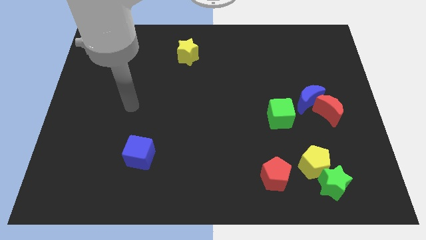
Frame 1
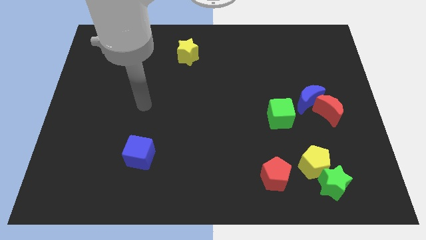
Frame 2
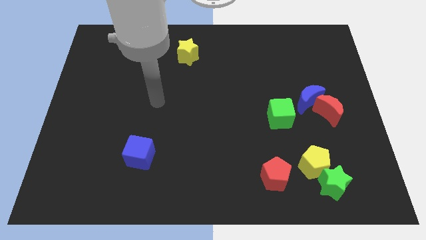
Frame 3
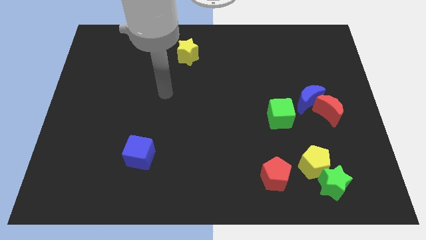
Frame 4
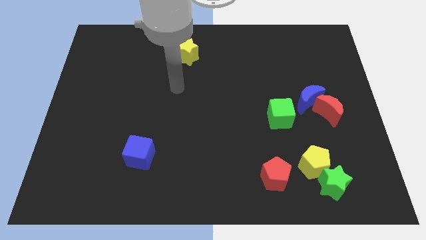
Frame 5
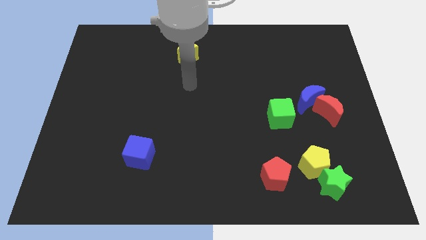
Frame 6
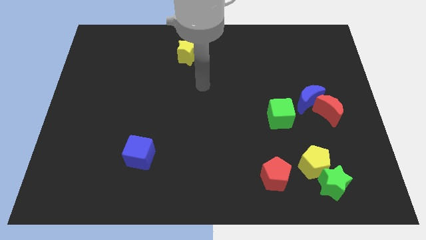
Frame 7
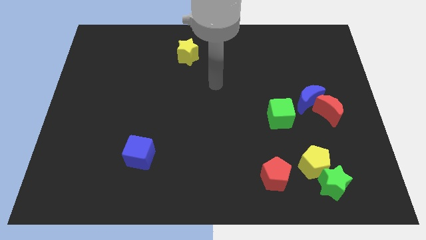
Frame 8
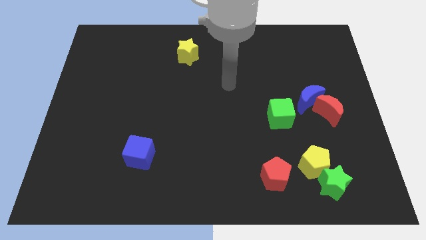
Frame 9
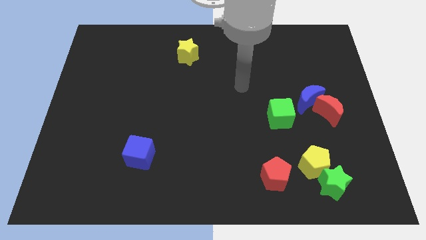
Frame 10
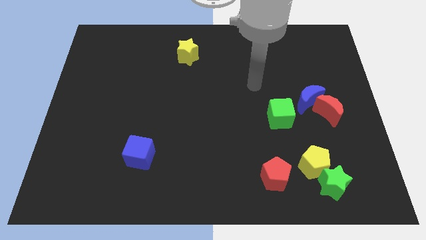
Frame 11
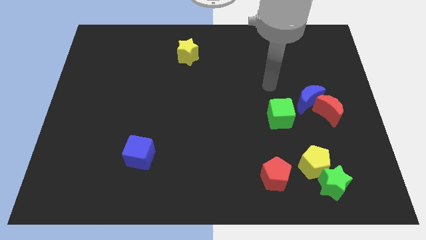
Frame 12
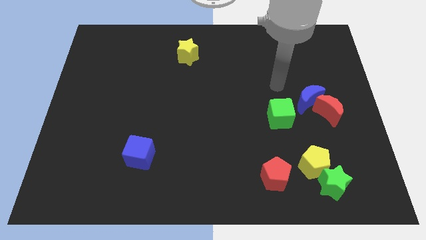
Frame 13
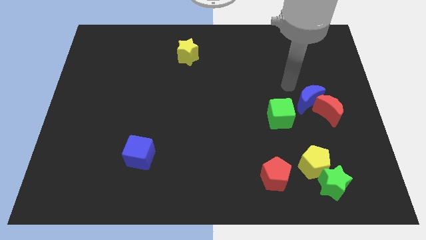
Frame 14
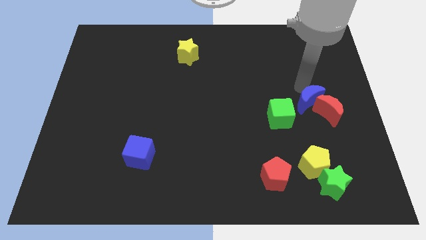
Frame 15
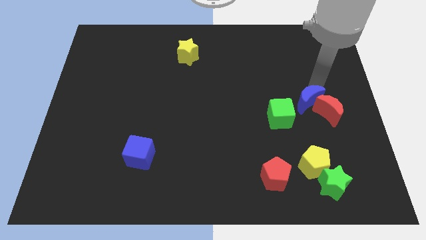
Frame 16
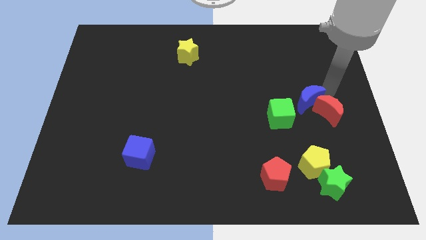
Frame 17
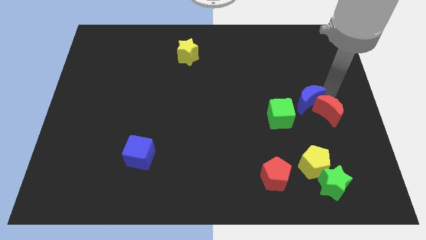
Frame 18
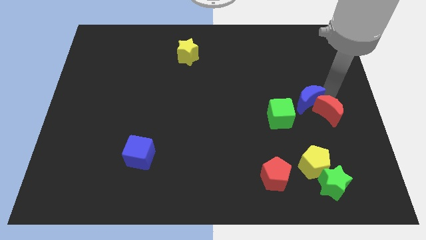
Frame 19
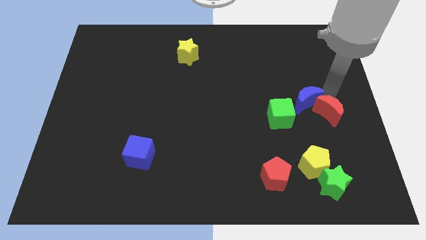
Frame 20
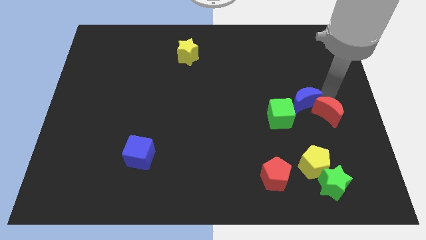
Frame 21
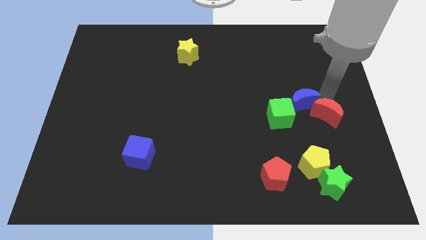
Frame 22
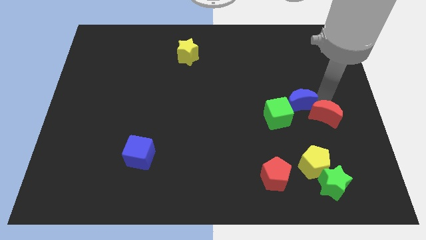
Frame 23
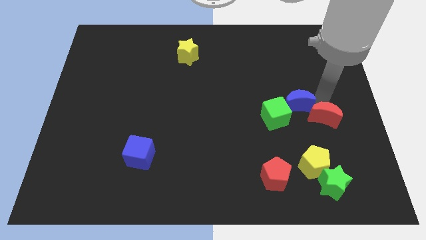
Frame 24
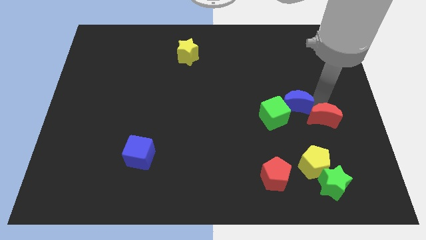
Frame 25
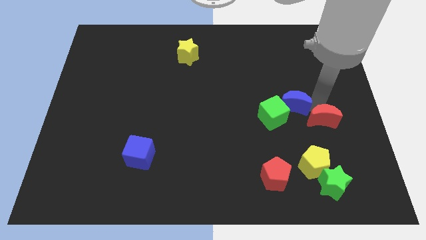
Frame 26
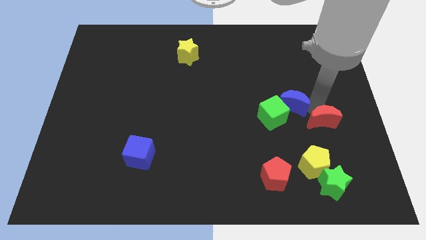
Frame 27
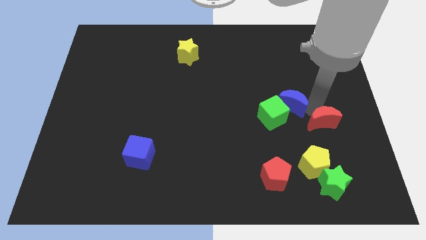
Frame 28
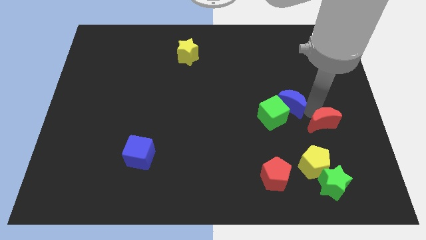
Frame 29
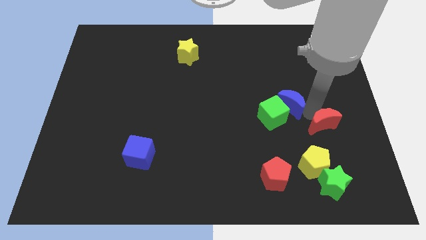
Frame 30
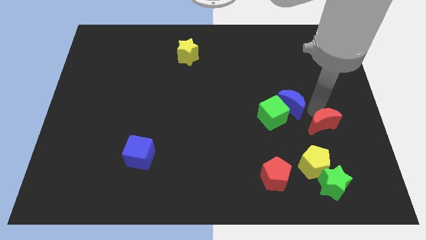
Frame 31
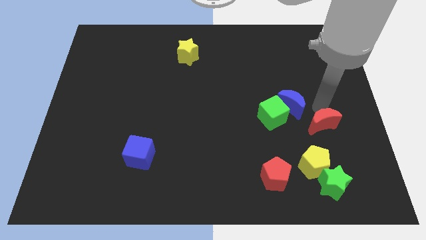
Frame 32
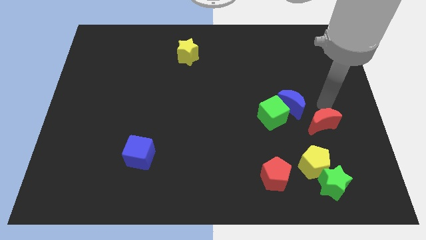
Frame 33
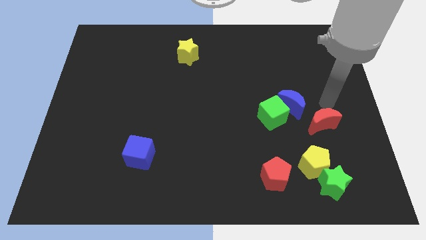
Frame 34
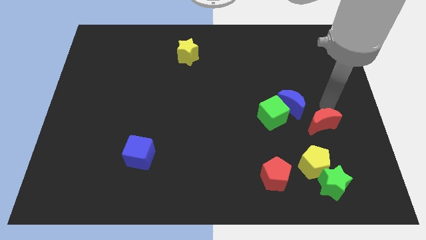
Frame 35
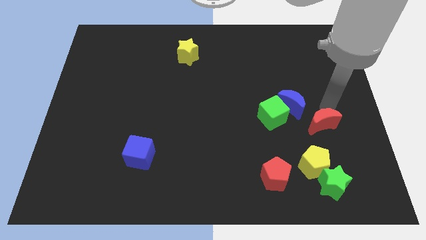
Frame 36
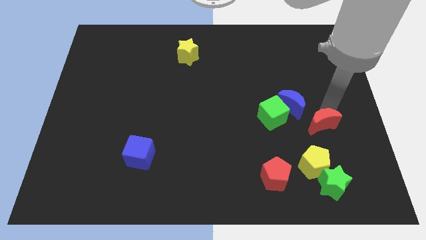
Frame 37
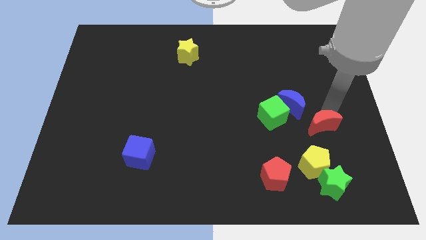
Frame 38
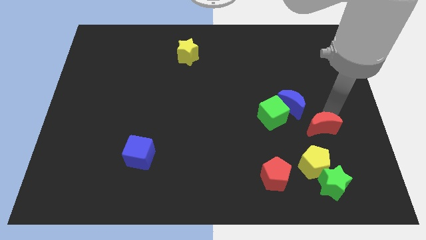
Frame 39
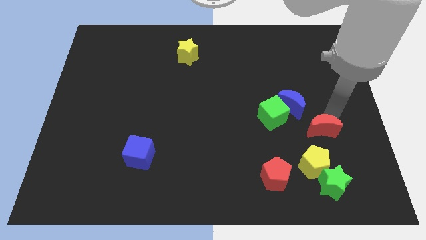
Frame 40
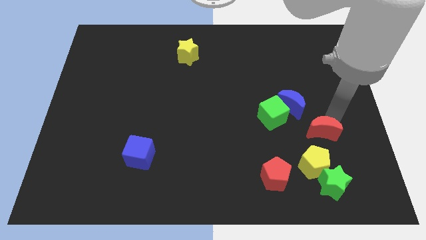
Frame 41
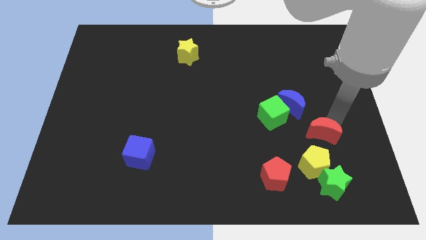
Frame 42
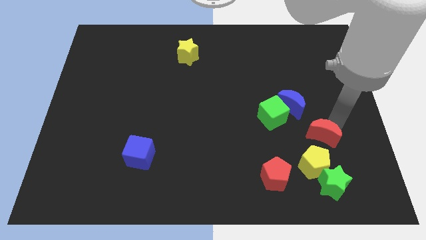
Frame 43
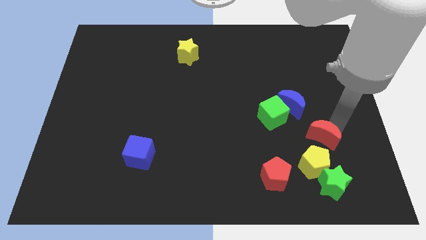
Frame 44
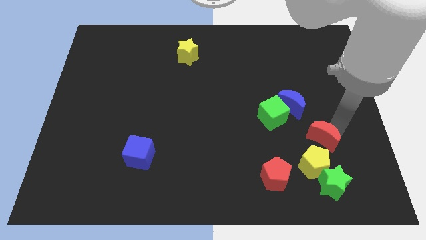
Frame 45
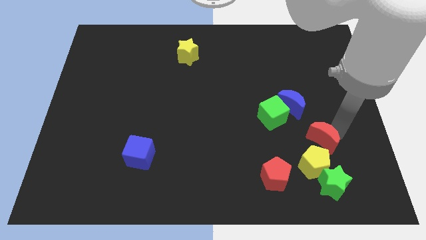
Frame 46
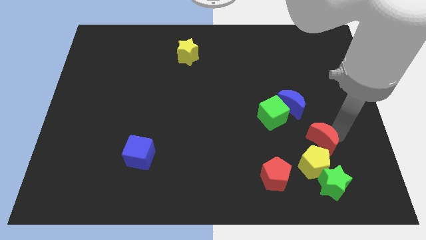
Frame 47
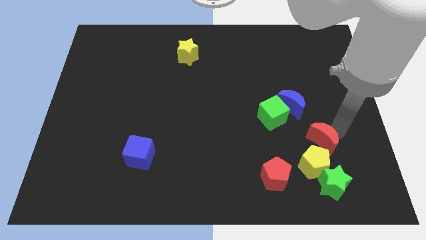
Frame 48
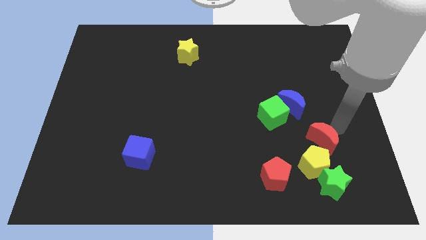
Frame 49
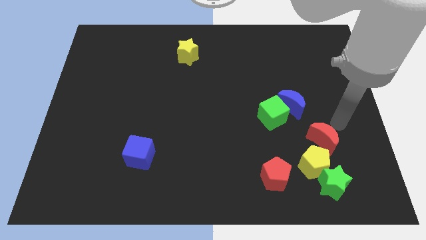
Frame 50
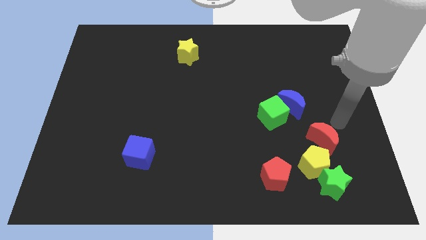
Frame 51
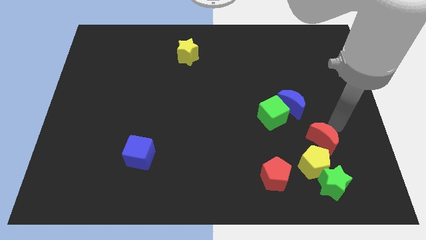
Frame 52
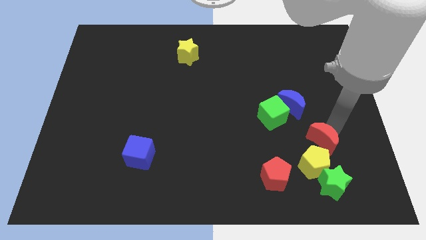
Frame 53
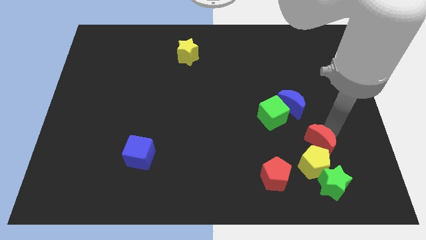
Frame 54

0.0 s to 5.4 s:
move the red moon next to the yellow pentagon

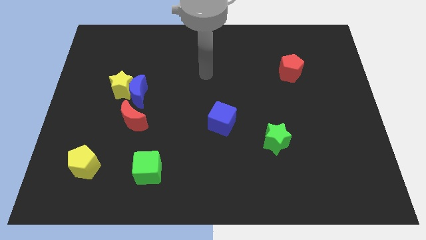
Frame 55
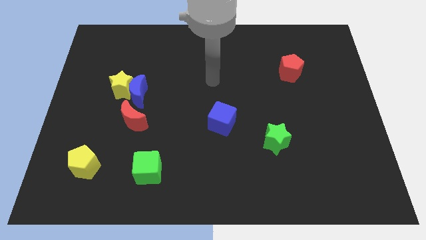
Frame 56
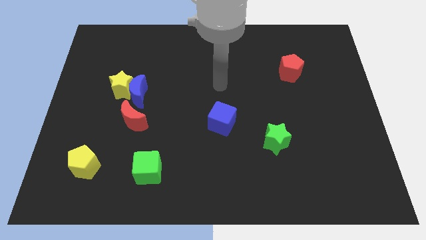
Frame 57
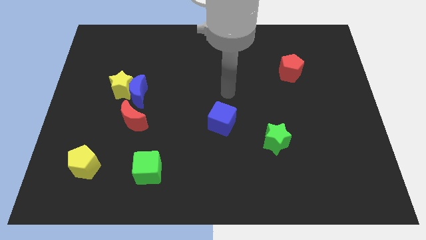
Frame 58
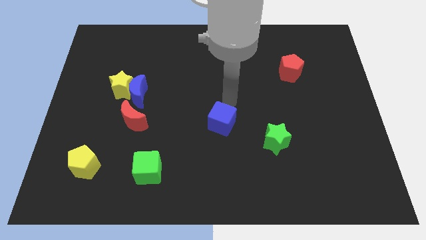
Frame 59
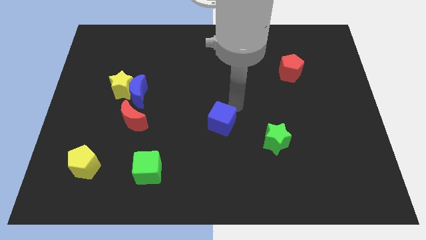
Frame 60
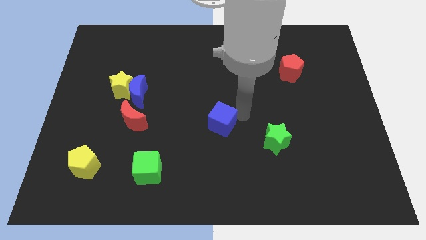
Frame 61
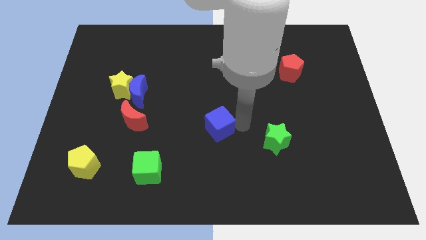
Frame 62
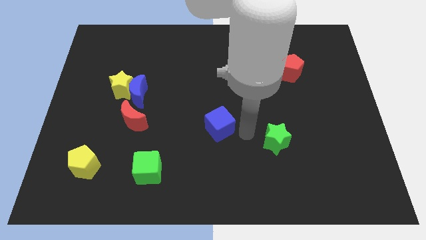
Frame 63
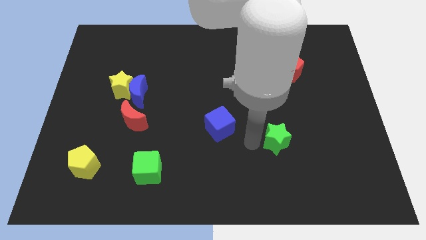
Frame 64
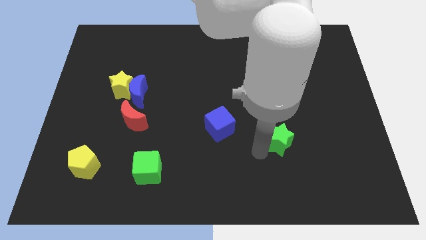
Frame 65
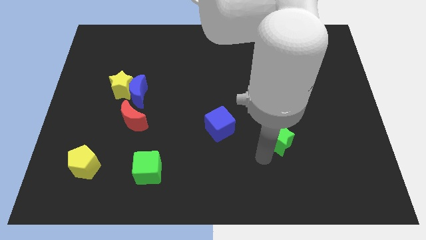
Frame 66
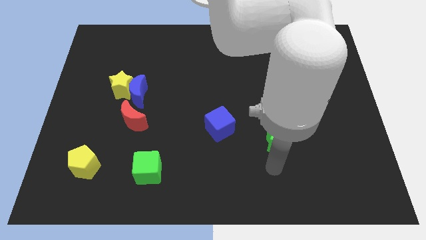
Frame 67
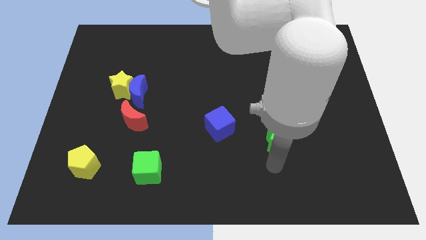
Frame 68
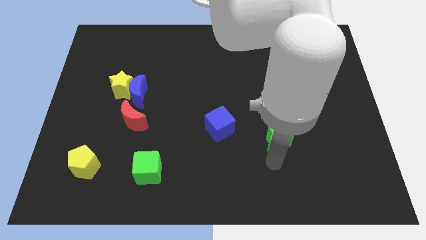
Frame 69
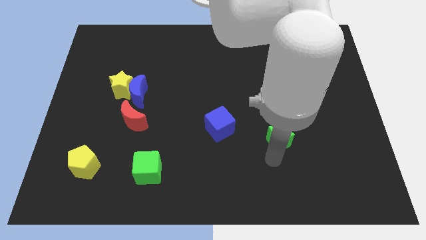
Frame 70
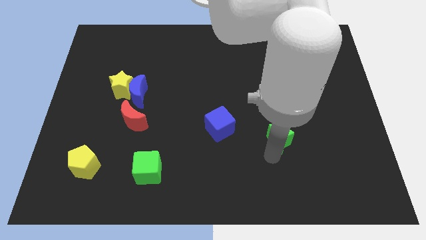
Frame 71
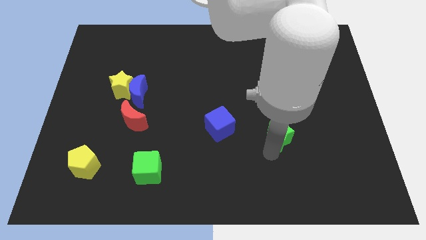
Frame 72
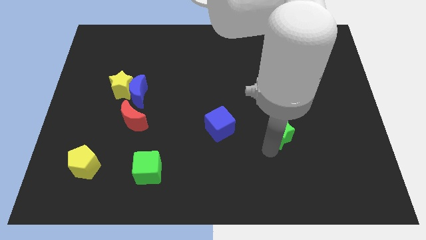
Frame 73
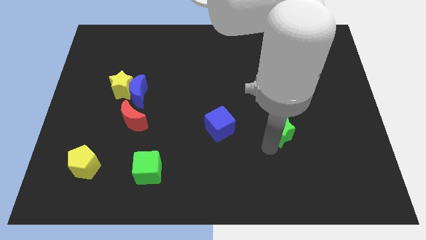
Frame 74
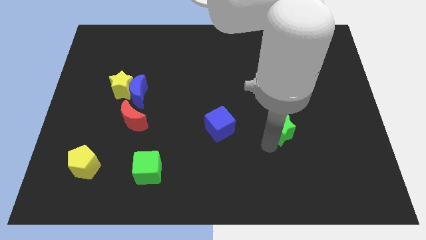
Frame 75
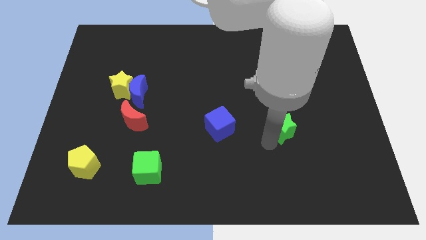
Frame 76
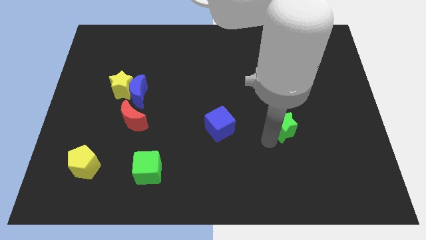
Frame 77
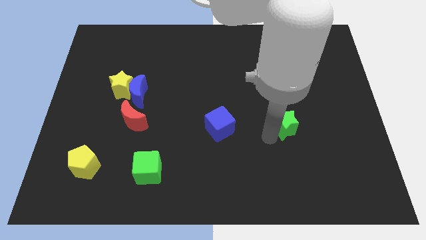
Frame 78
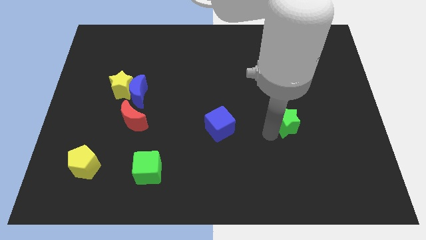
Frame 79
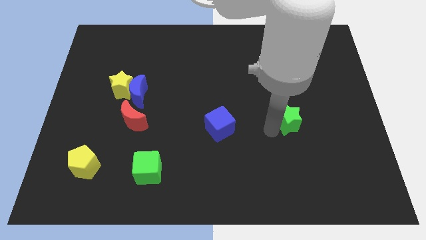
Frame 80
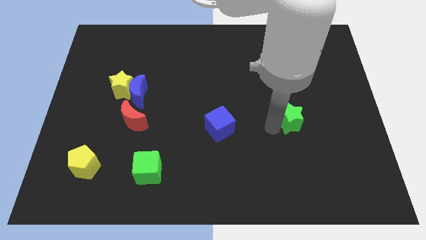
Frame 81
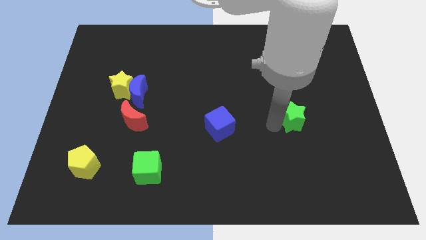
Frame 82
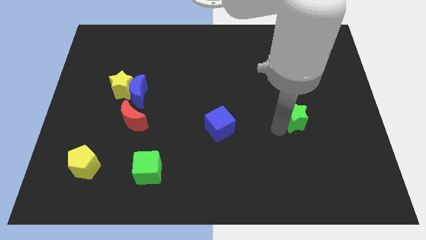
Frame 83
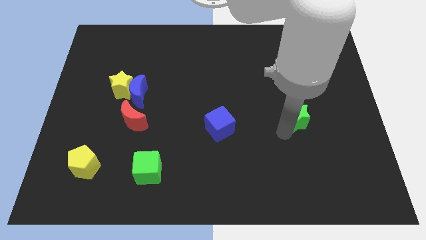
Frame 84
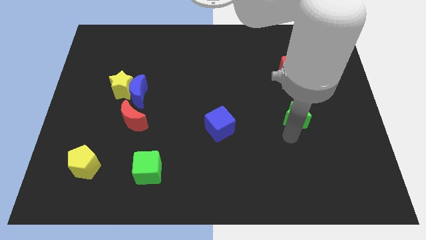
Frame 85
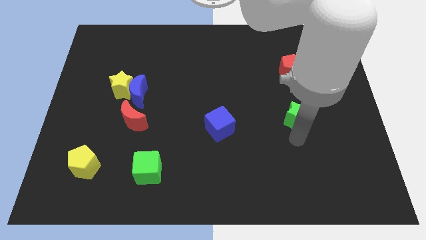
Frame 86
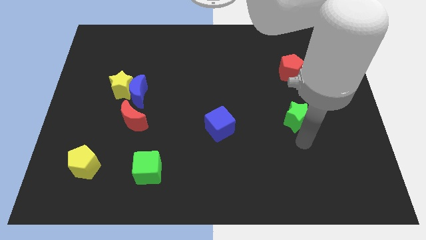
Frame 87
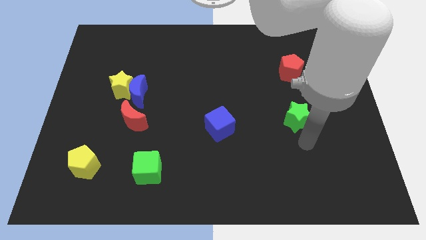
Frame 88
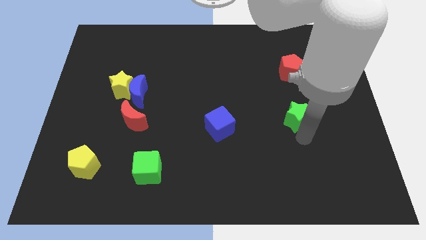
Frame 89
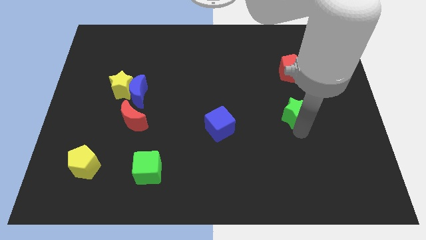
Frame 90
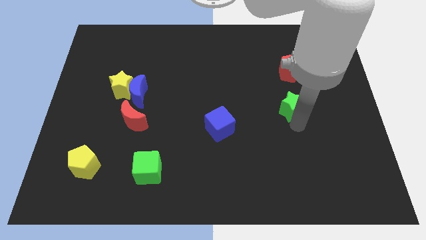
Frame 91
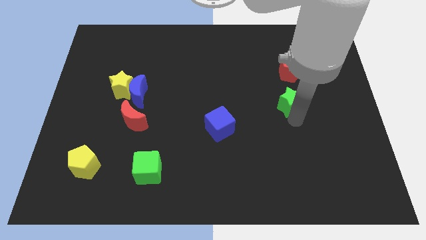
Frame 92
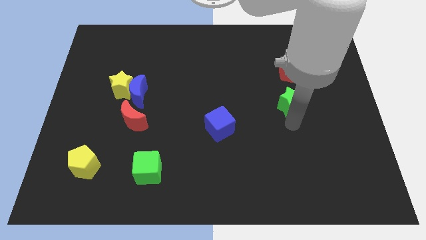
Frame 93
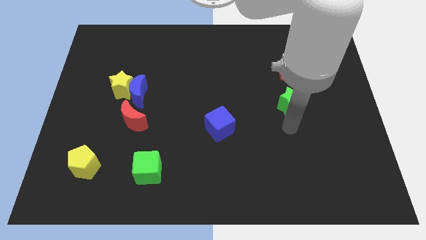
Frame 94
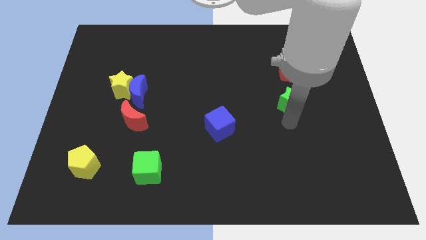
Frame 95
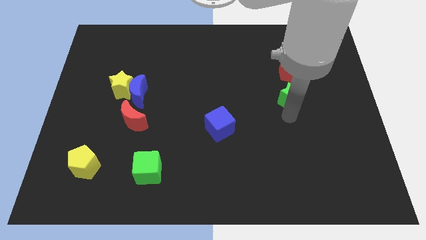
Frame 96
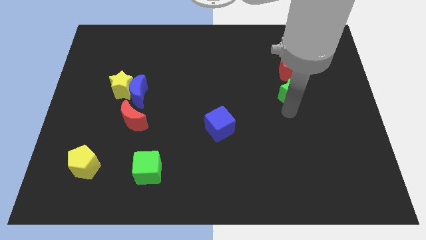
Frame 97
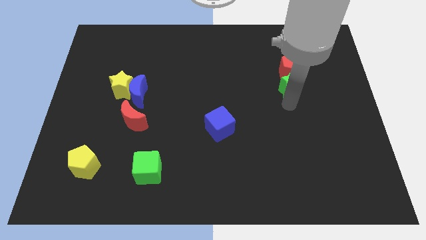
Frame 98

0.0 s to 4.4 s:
slide the green star next to the red pentagon
